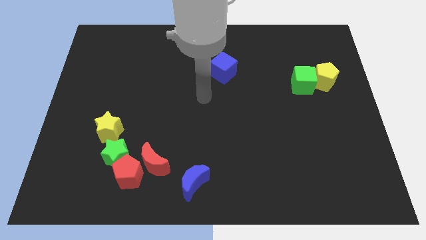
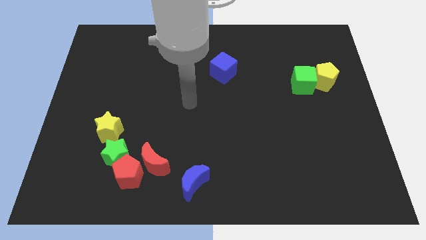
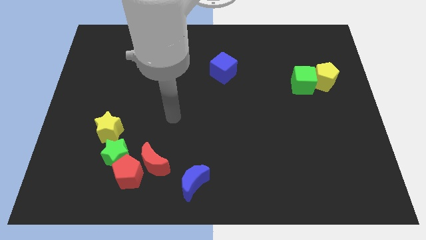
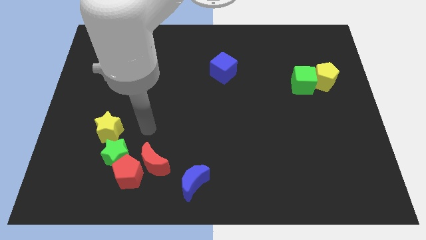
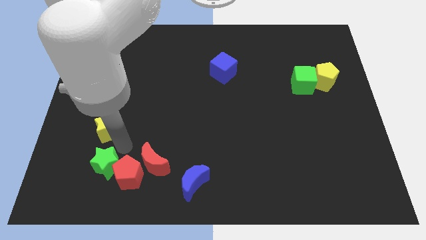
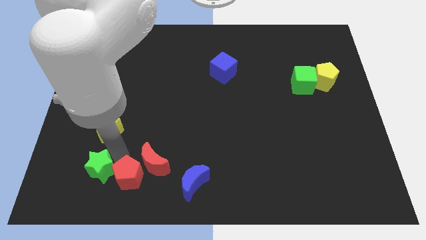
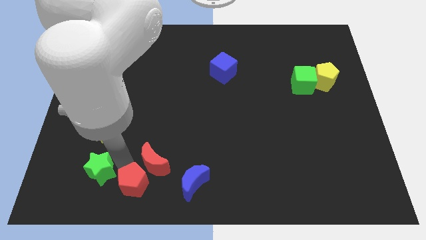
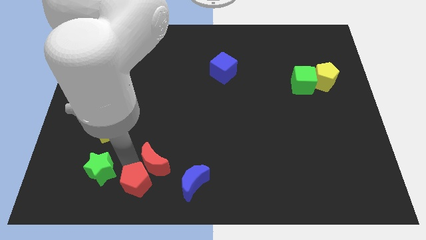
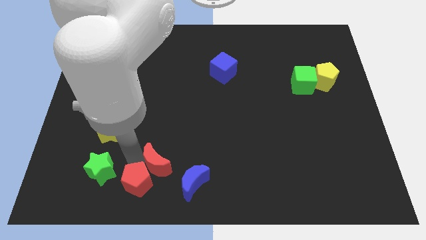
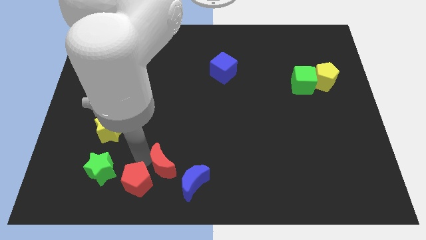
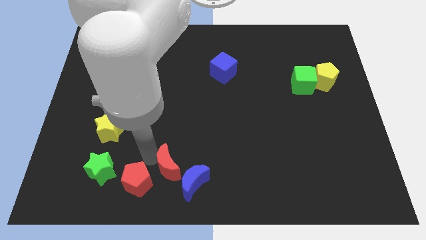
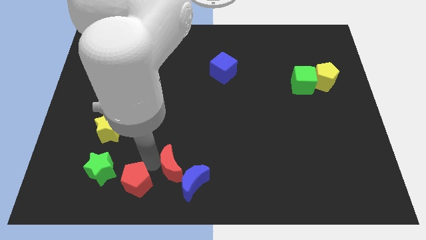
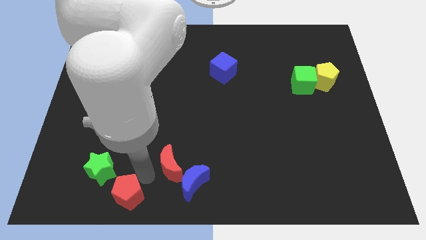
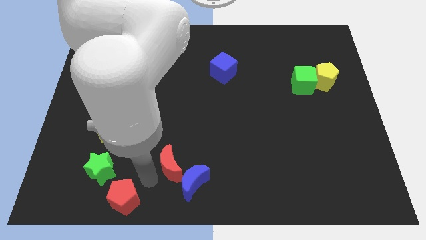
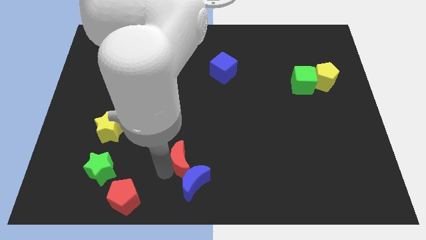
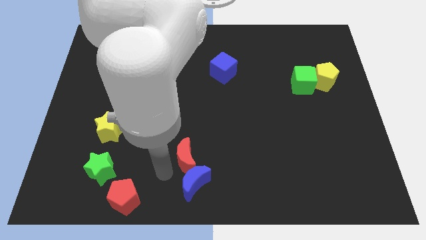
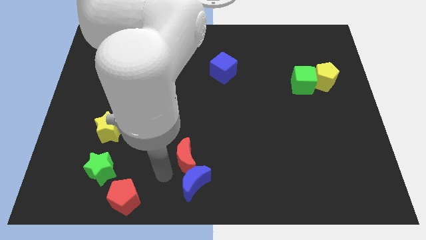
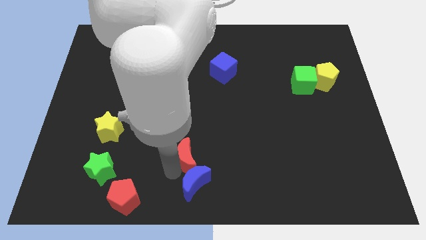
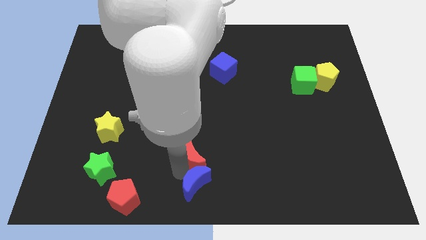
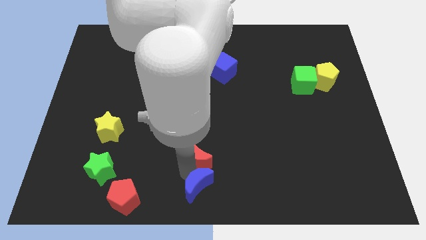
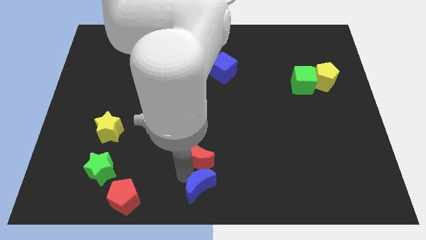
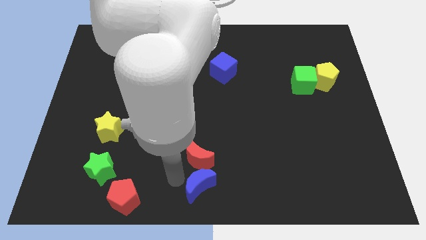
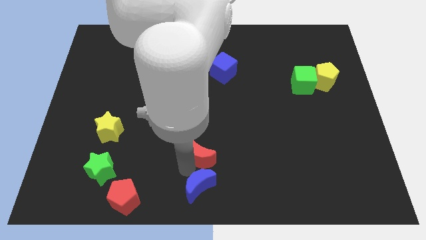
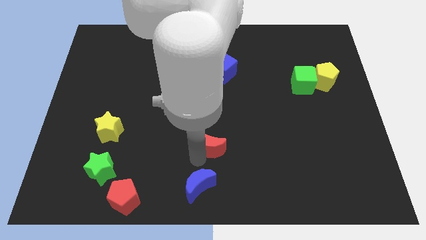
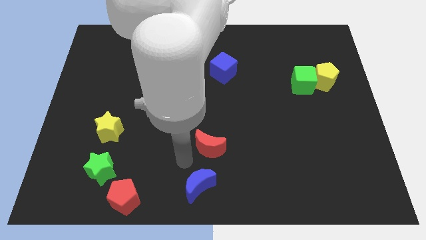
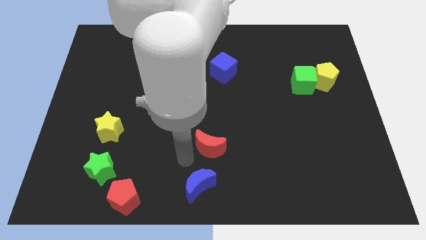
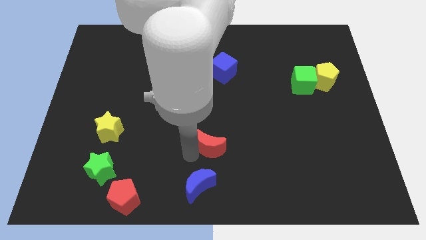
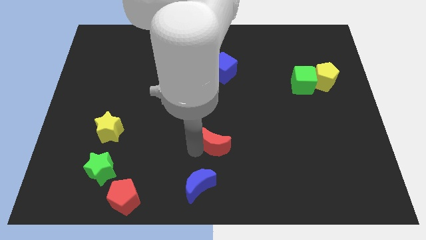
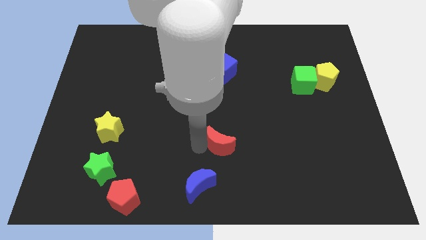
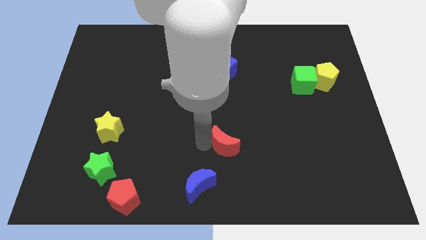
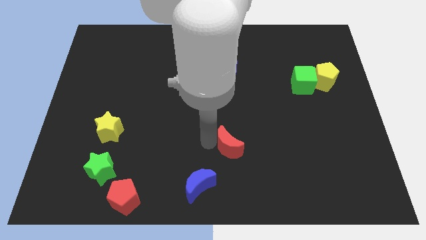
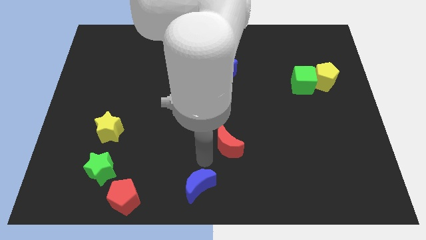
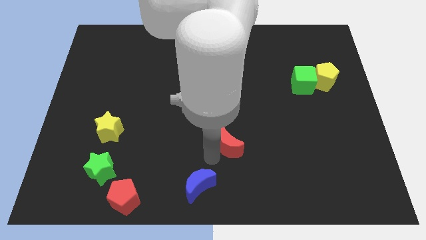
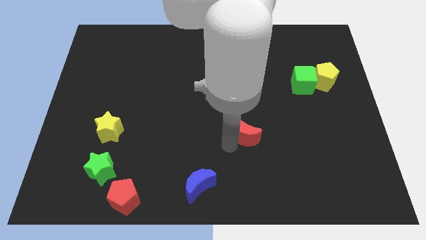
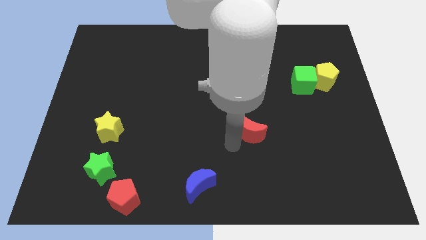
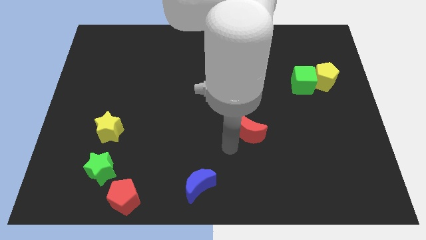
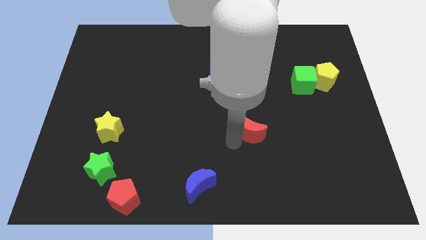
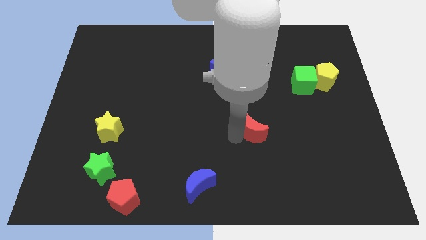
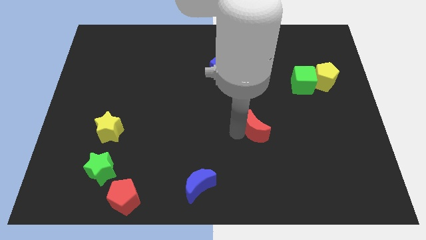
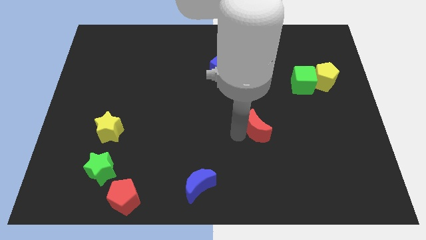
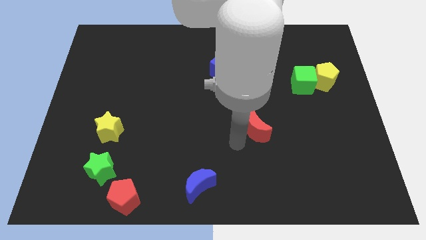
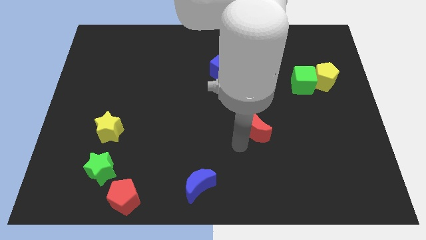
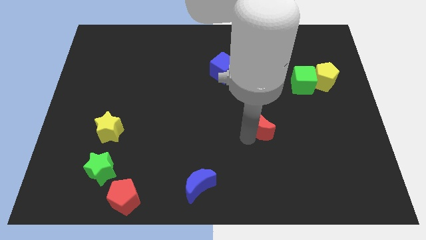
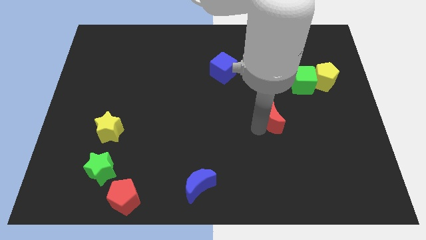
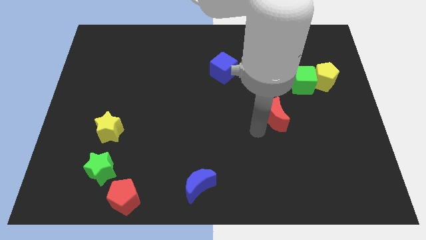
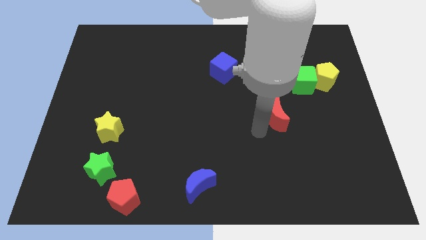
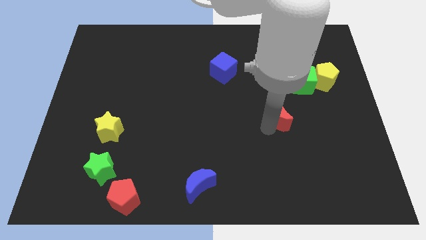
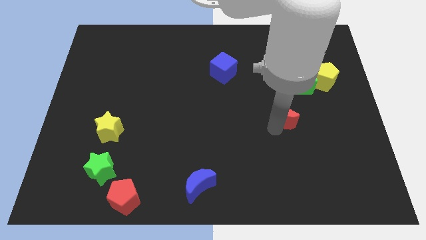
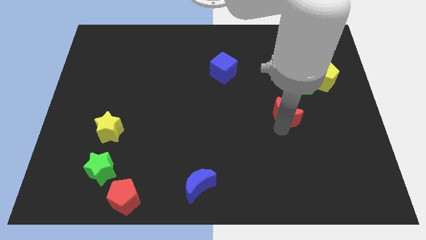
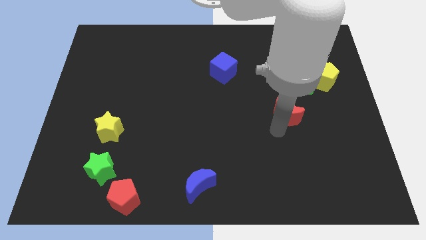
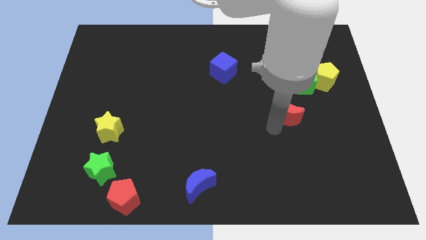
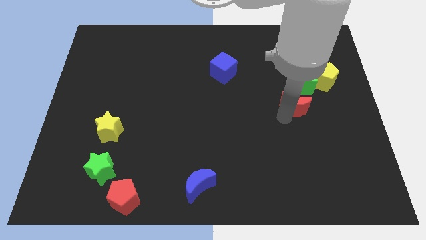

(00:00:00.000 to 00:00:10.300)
put the red moon to the bottom left side of the yellow pentagon

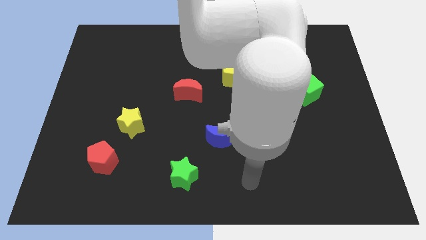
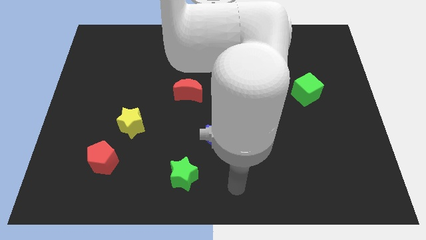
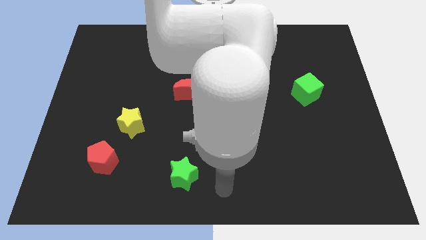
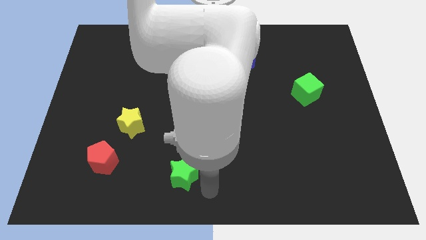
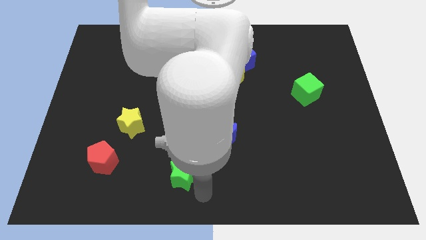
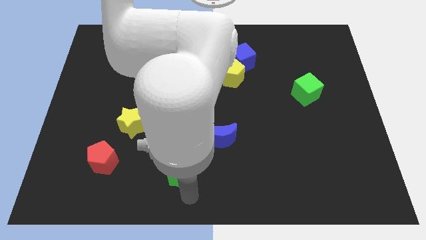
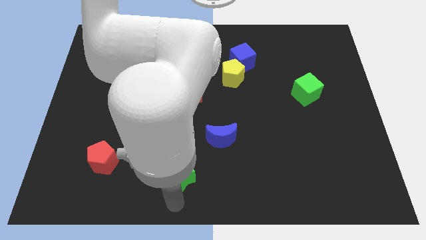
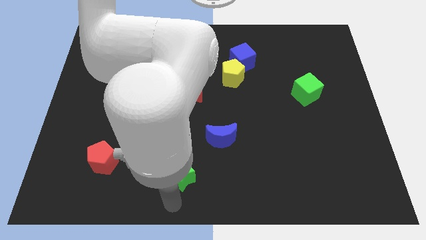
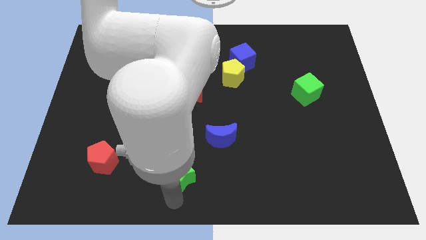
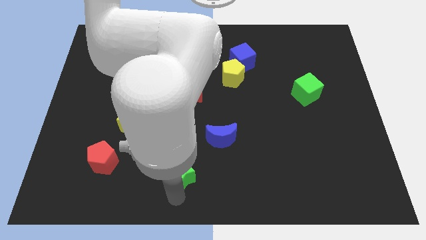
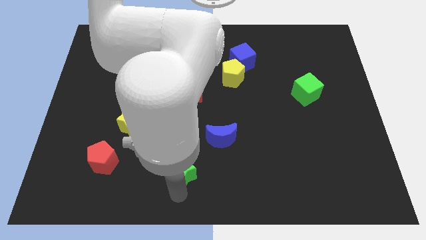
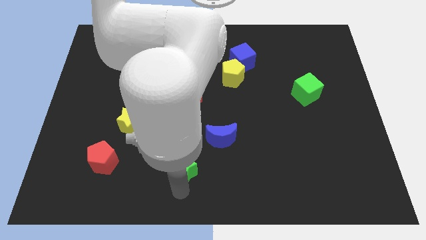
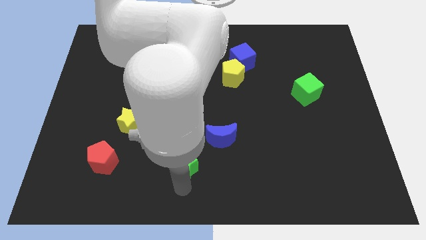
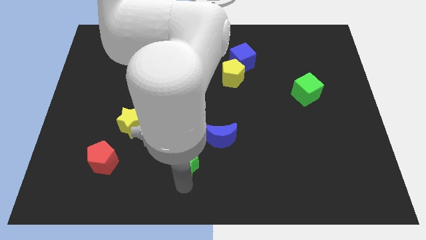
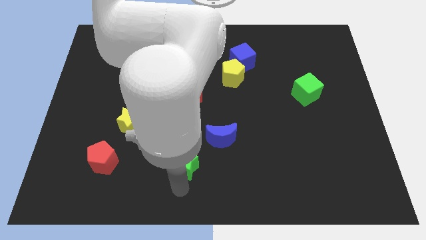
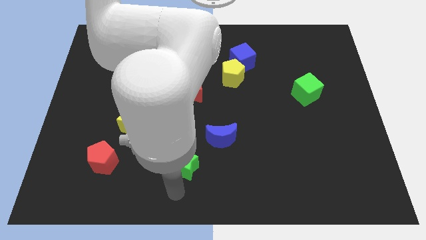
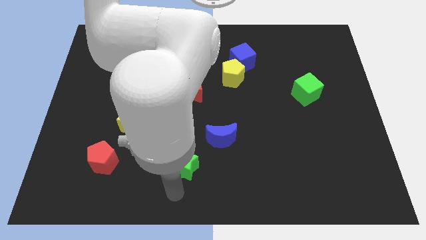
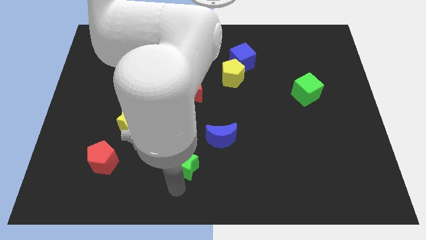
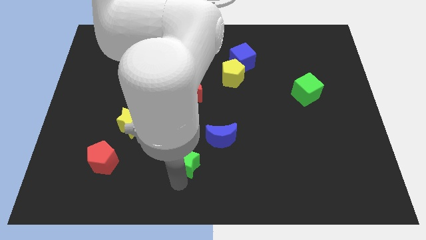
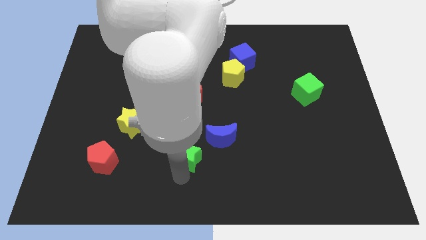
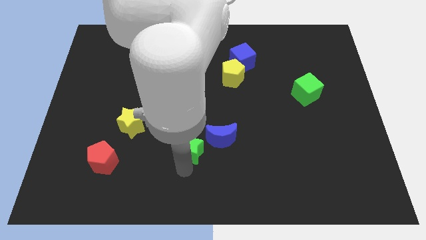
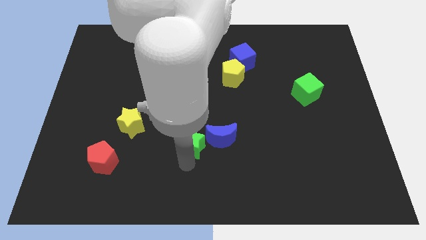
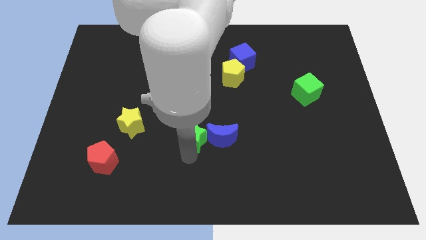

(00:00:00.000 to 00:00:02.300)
slide the green star to the top left side of the blue moon
